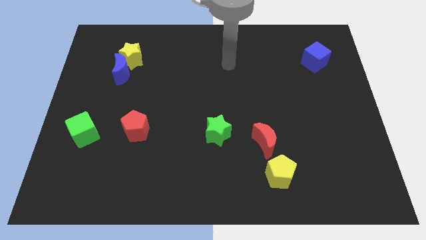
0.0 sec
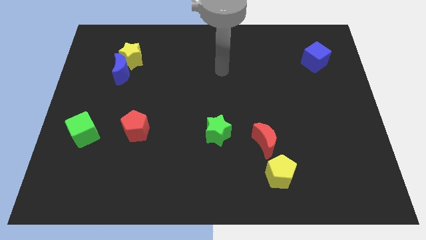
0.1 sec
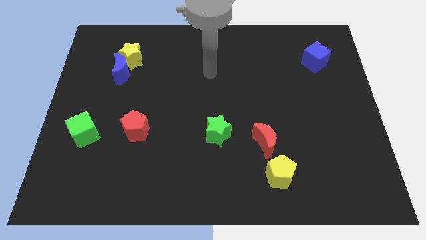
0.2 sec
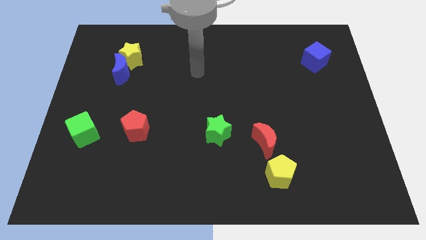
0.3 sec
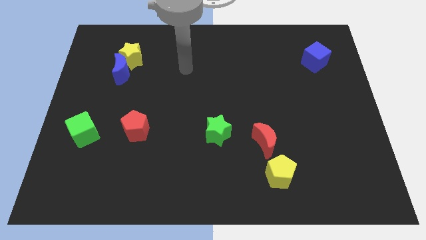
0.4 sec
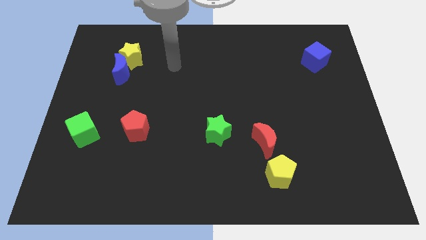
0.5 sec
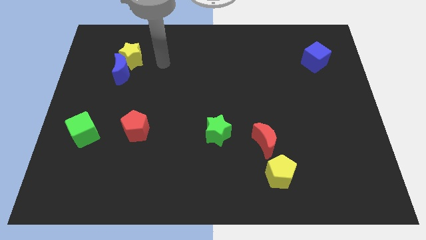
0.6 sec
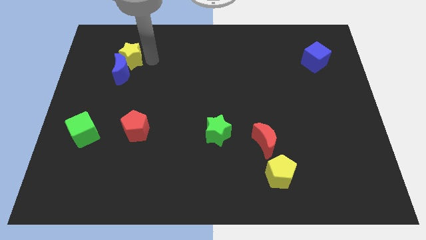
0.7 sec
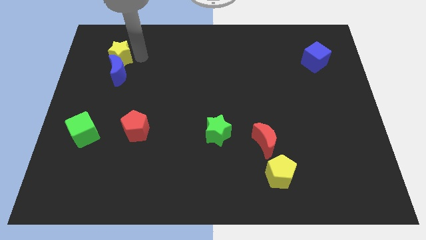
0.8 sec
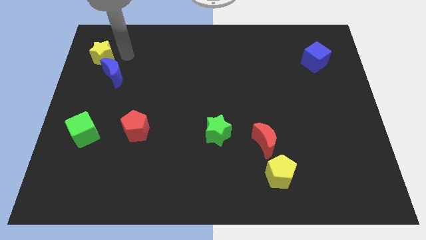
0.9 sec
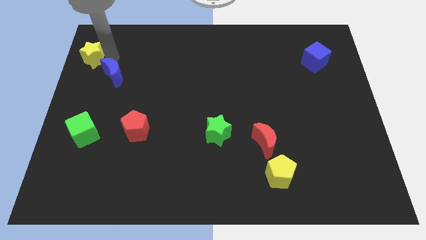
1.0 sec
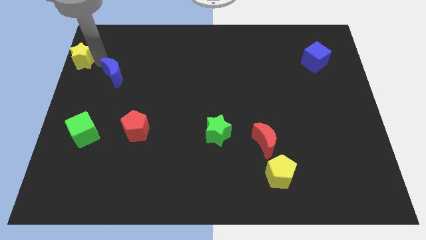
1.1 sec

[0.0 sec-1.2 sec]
separate the blue moon from the yellow star

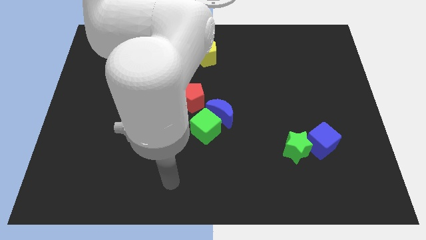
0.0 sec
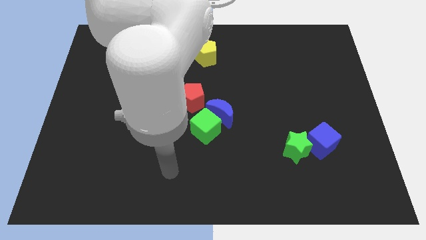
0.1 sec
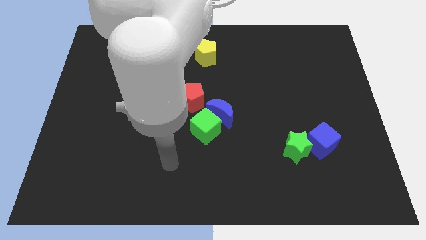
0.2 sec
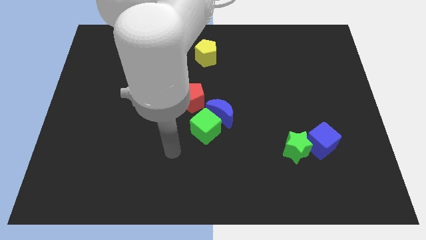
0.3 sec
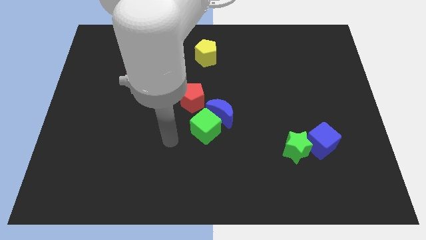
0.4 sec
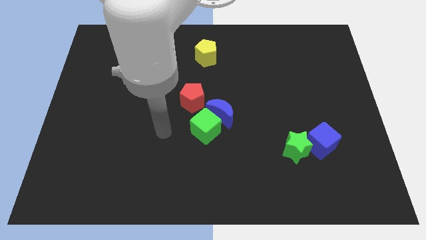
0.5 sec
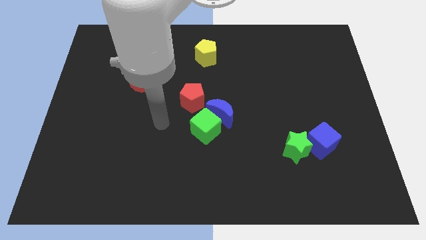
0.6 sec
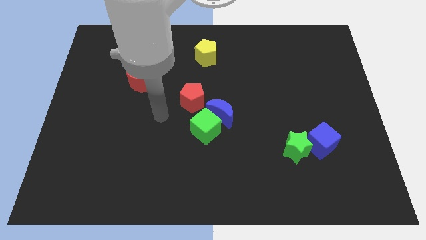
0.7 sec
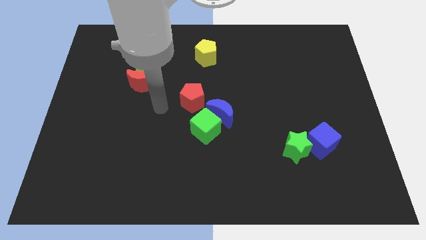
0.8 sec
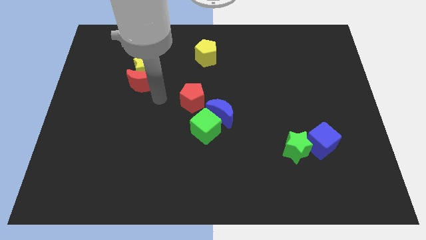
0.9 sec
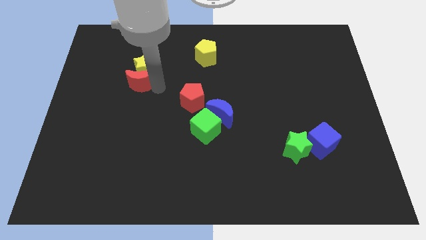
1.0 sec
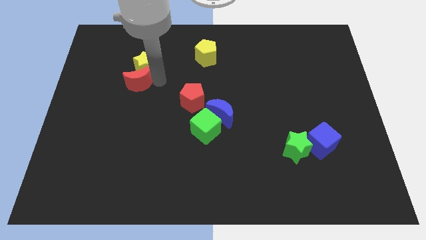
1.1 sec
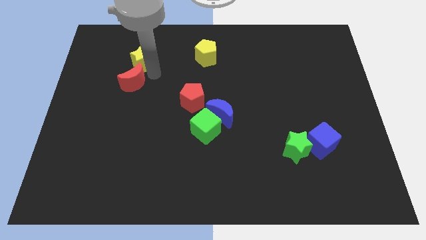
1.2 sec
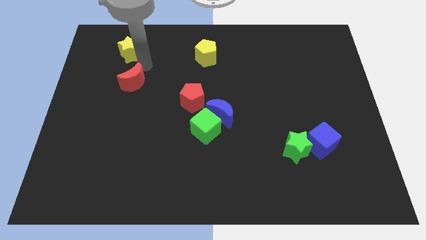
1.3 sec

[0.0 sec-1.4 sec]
move the red moon away from the yellow star

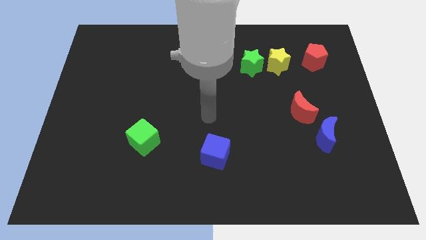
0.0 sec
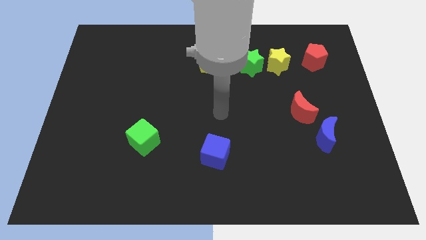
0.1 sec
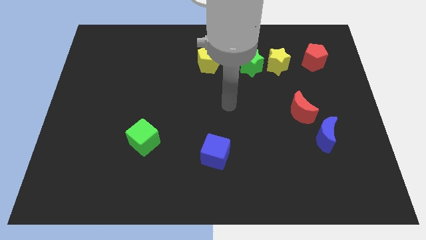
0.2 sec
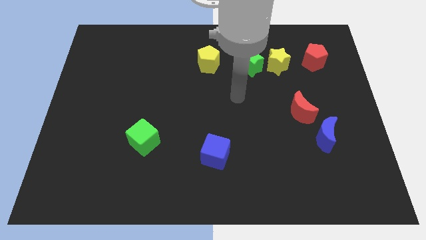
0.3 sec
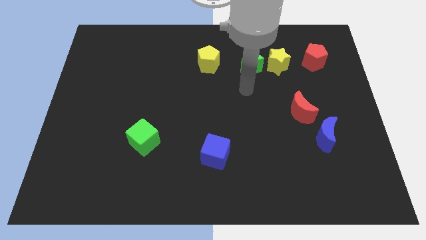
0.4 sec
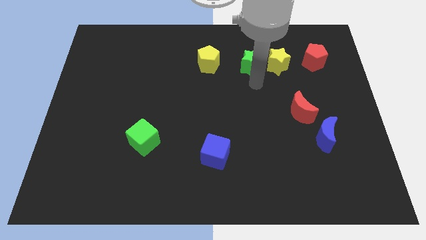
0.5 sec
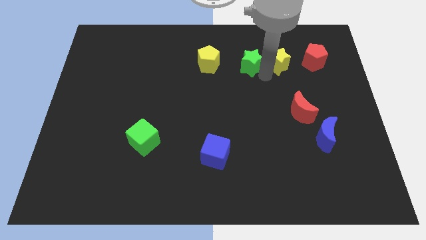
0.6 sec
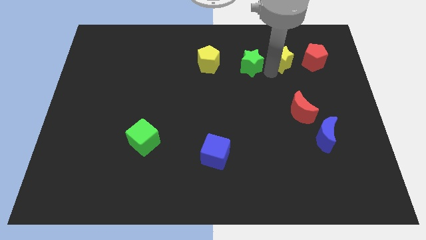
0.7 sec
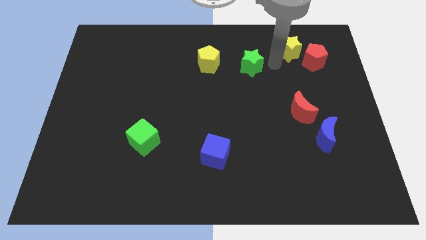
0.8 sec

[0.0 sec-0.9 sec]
move the green star away from the yellow star

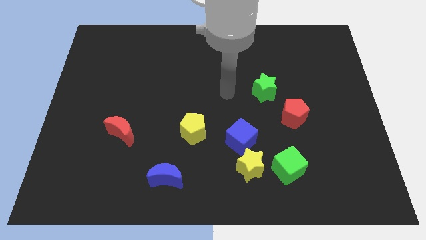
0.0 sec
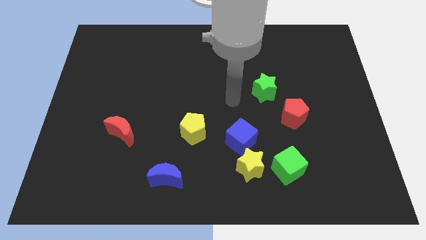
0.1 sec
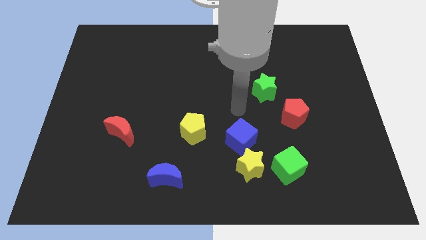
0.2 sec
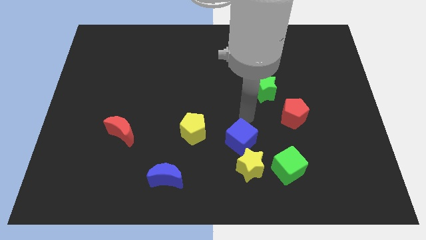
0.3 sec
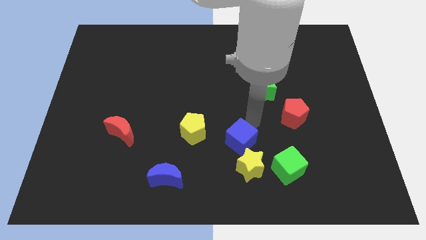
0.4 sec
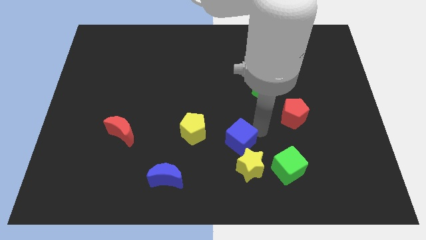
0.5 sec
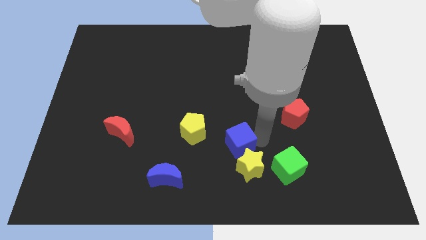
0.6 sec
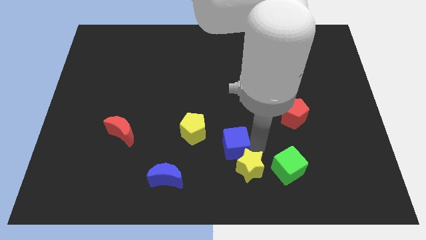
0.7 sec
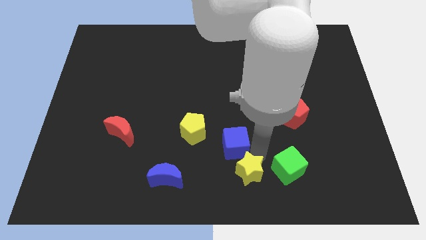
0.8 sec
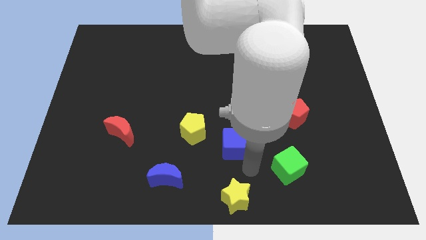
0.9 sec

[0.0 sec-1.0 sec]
move the blue cube away from the yellow star

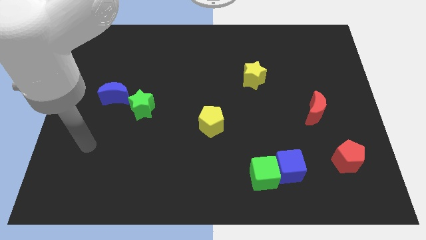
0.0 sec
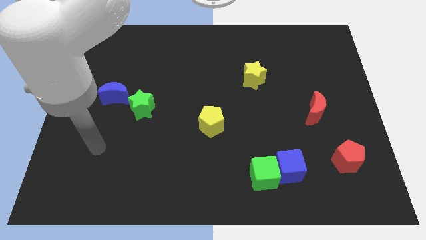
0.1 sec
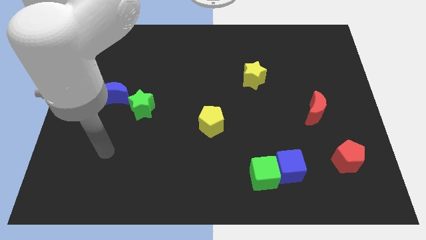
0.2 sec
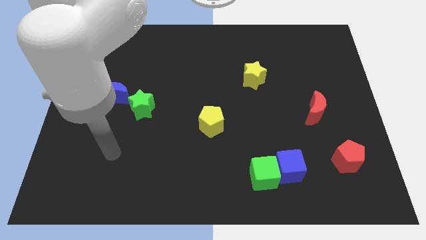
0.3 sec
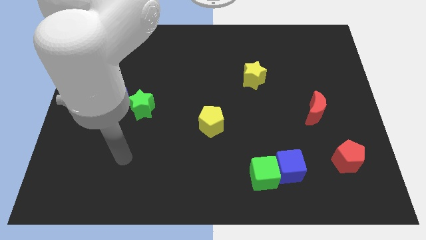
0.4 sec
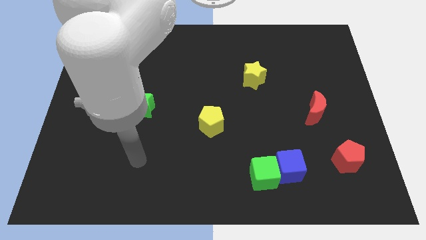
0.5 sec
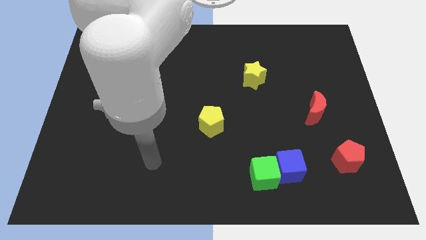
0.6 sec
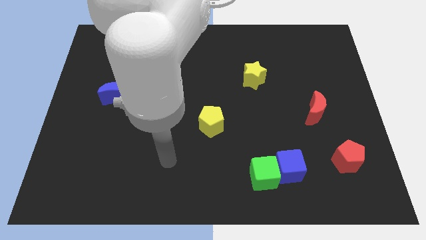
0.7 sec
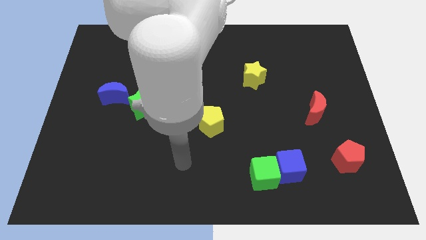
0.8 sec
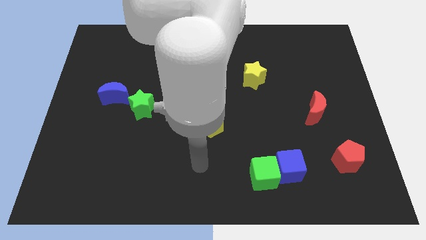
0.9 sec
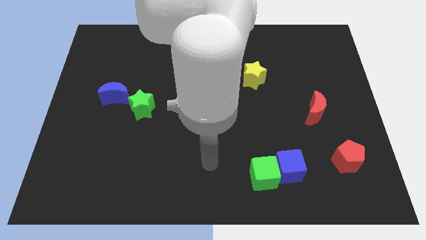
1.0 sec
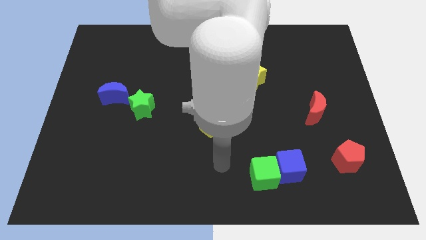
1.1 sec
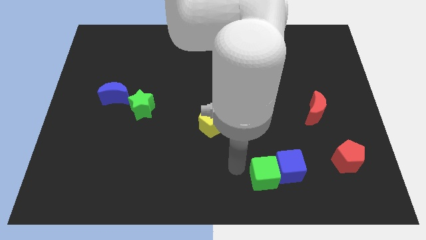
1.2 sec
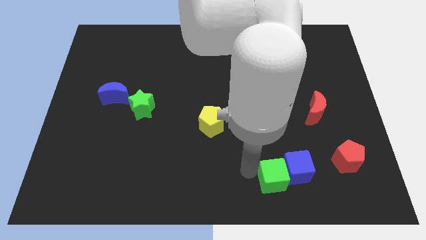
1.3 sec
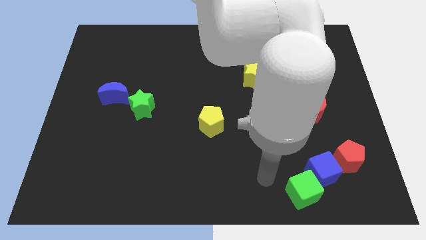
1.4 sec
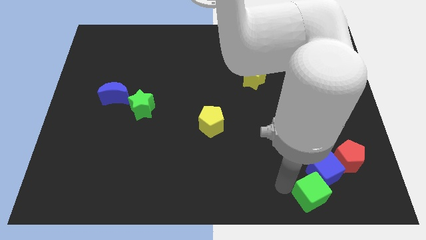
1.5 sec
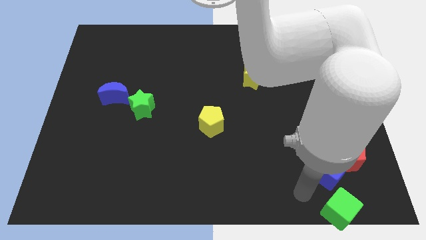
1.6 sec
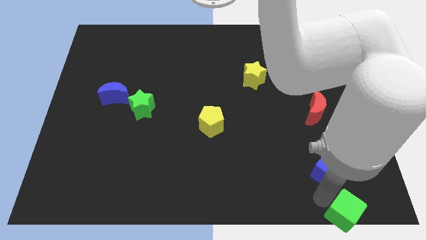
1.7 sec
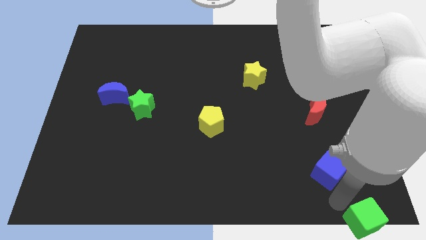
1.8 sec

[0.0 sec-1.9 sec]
move the blue cube away from the green cube

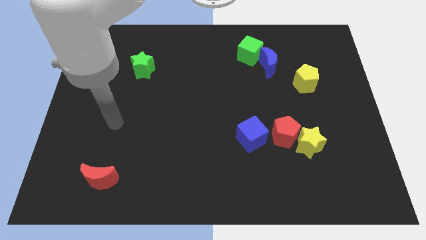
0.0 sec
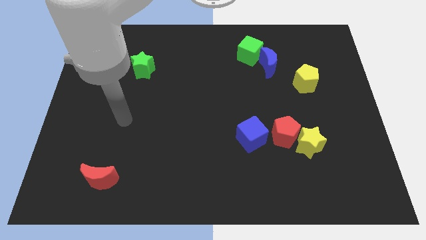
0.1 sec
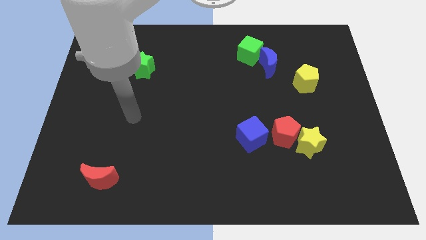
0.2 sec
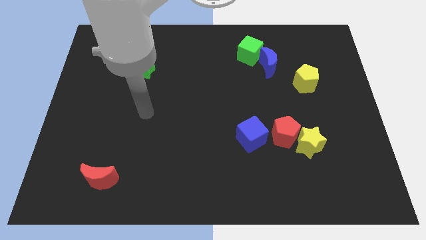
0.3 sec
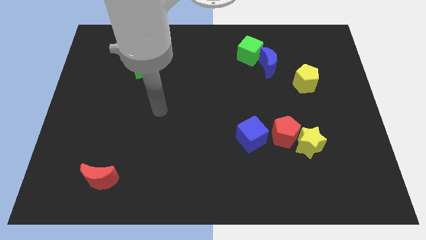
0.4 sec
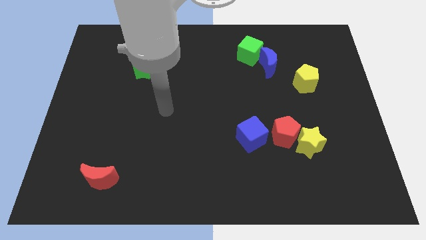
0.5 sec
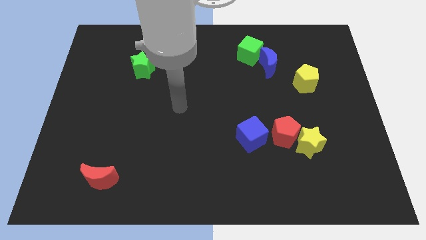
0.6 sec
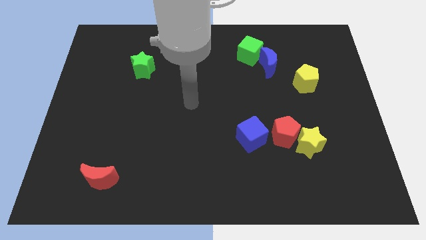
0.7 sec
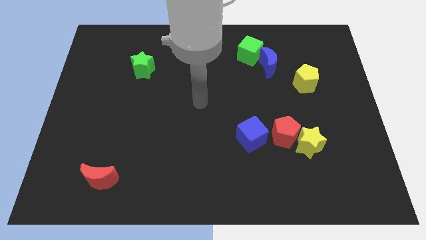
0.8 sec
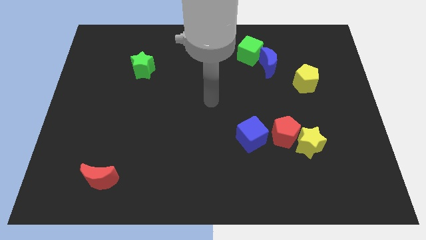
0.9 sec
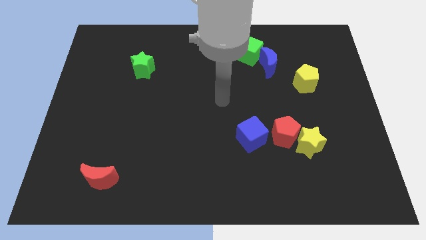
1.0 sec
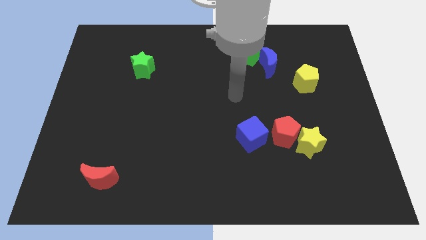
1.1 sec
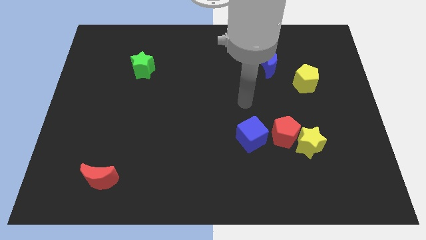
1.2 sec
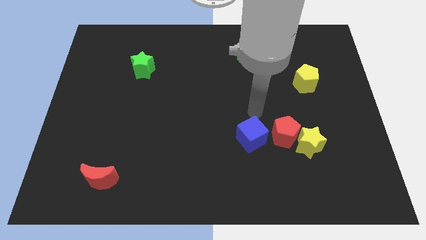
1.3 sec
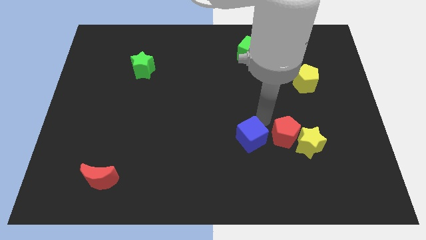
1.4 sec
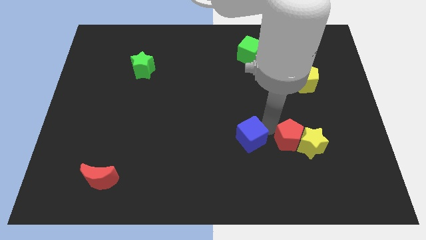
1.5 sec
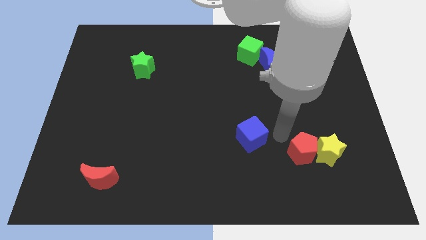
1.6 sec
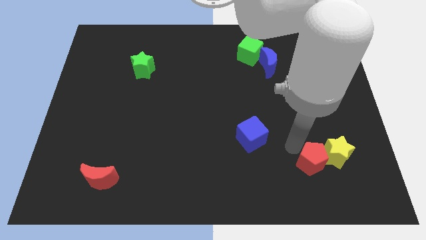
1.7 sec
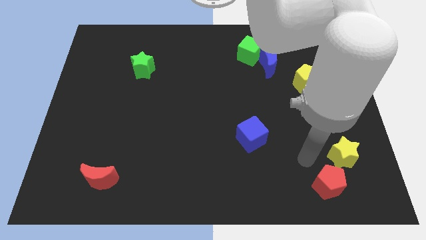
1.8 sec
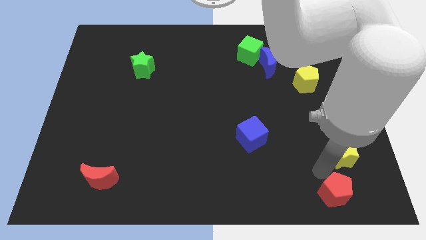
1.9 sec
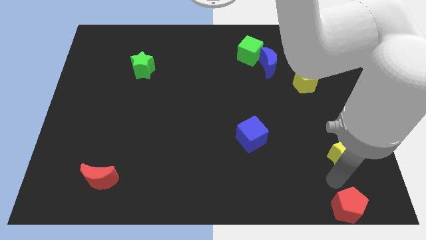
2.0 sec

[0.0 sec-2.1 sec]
separate the yellow star from the red pentagon

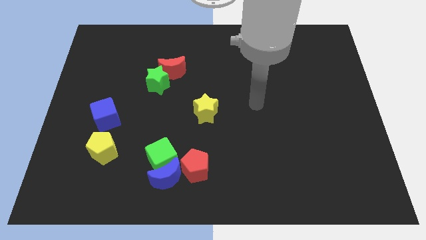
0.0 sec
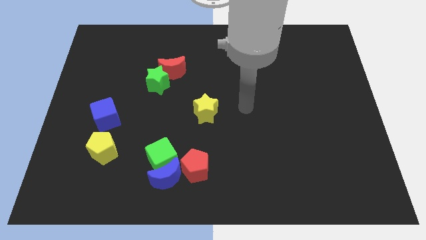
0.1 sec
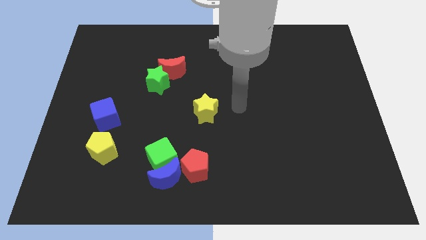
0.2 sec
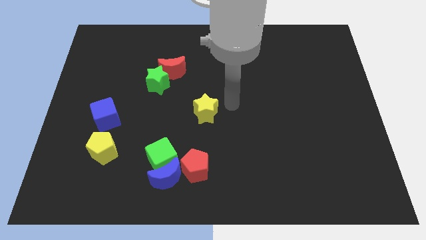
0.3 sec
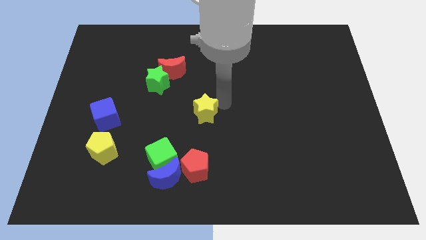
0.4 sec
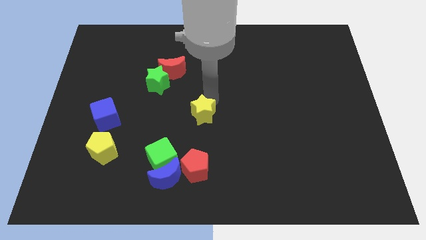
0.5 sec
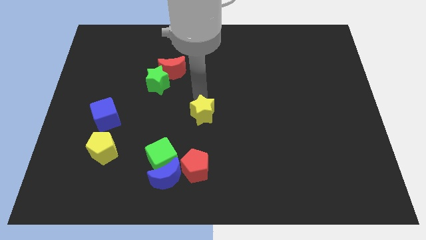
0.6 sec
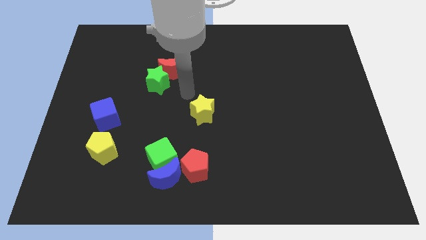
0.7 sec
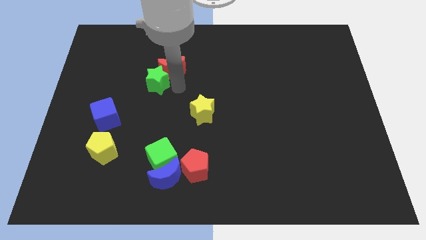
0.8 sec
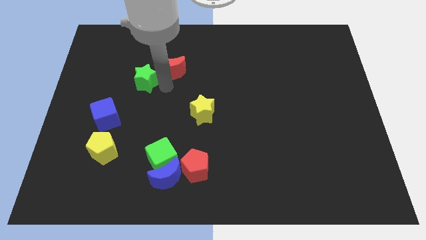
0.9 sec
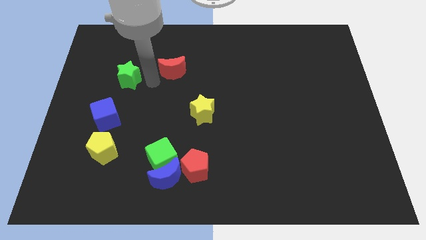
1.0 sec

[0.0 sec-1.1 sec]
pull the red moon apart from the green star
